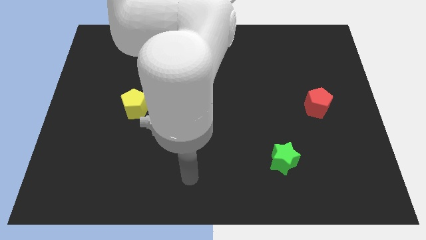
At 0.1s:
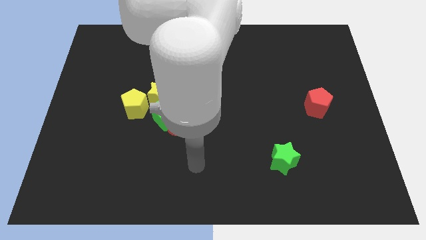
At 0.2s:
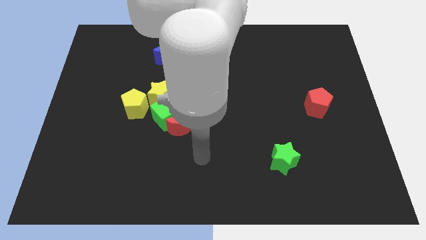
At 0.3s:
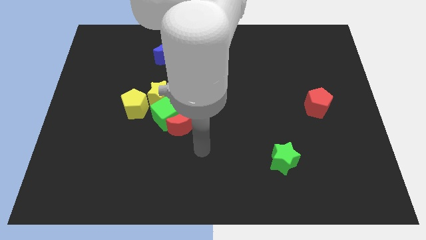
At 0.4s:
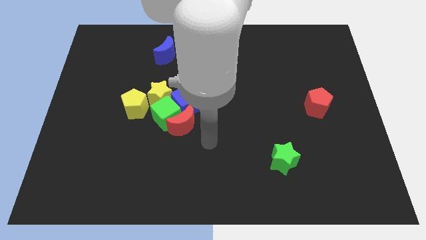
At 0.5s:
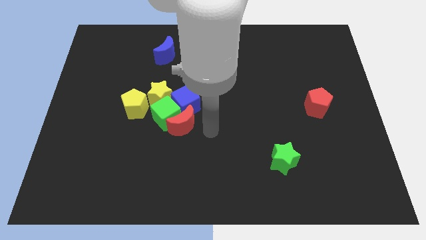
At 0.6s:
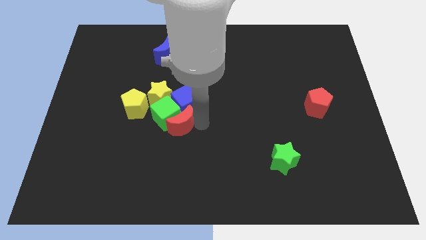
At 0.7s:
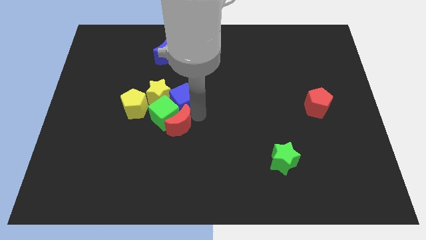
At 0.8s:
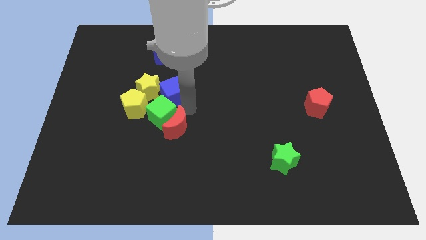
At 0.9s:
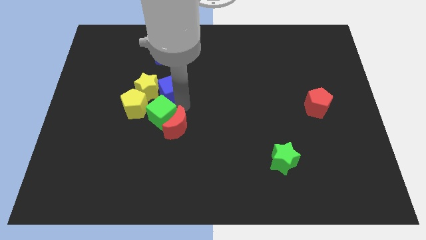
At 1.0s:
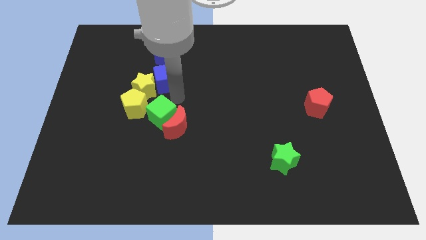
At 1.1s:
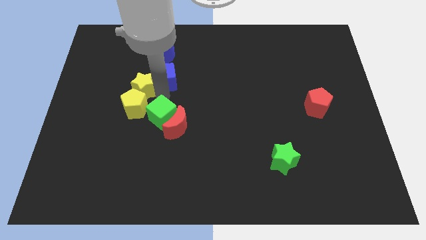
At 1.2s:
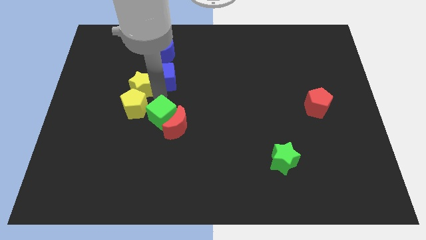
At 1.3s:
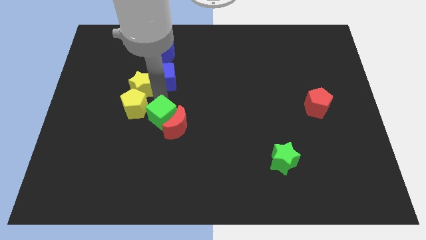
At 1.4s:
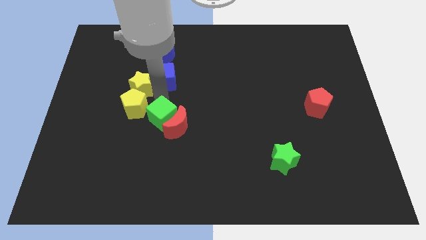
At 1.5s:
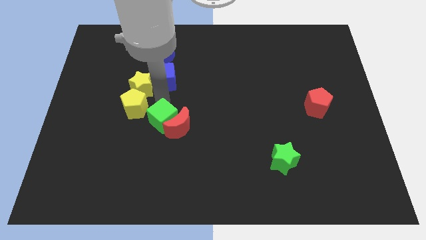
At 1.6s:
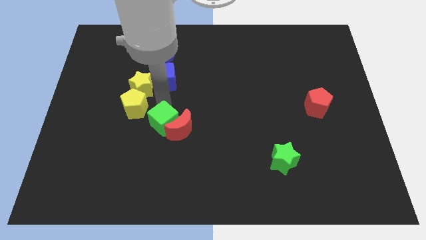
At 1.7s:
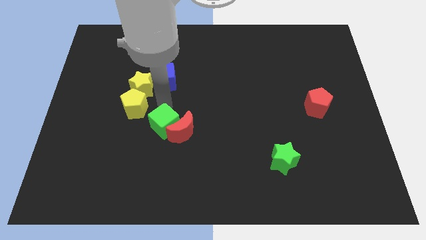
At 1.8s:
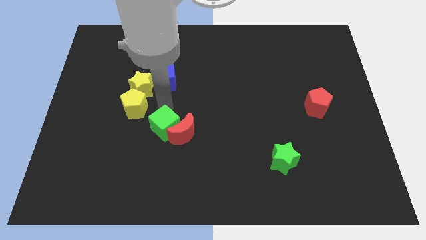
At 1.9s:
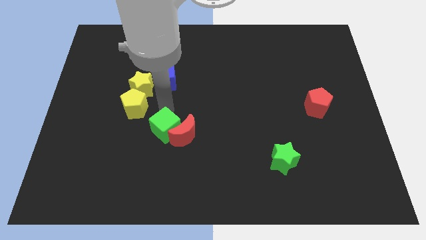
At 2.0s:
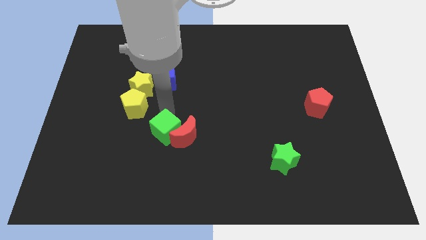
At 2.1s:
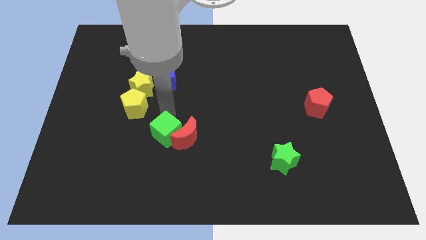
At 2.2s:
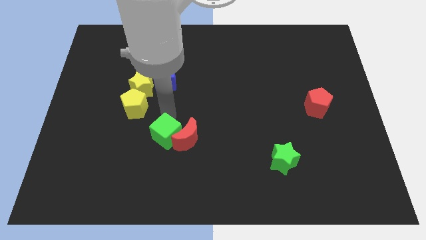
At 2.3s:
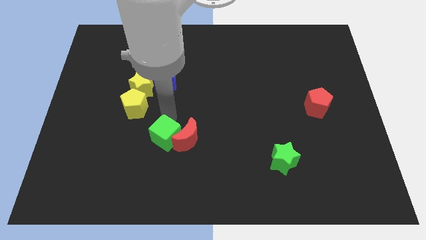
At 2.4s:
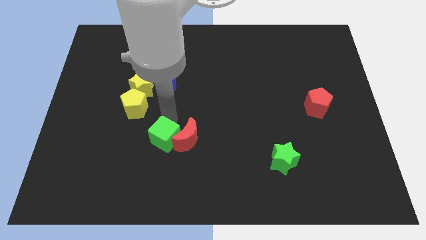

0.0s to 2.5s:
separate the green cube from the group

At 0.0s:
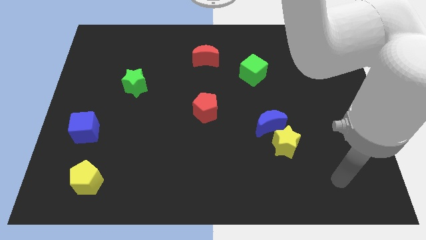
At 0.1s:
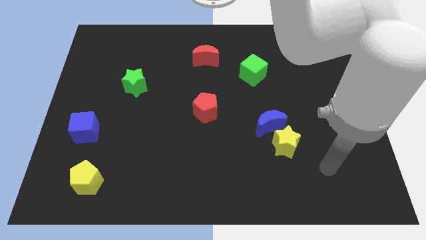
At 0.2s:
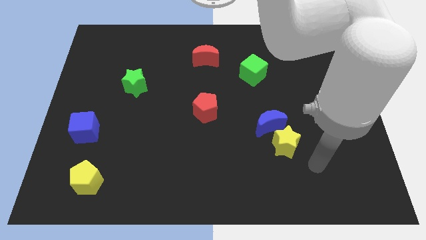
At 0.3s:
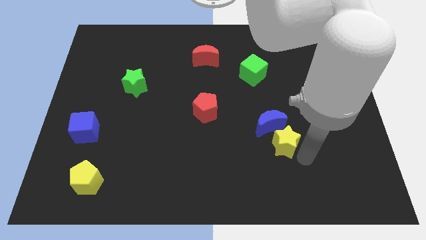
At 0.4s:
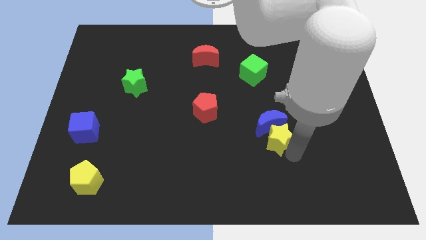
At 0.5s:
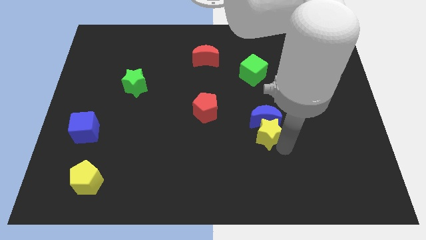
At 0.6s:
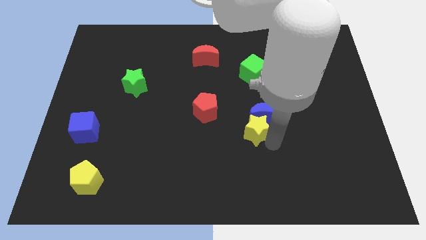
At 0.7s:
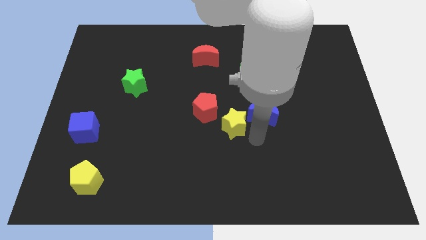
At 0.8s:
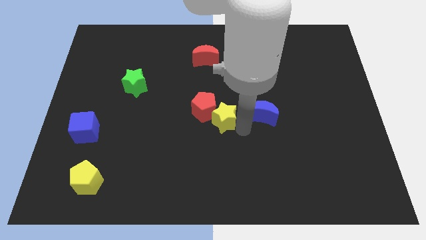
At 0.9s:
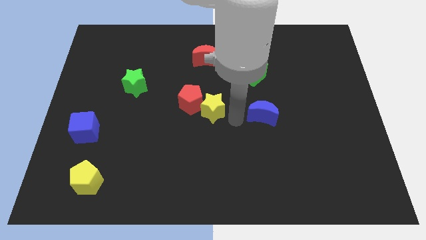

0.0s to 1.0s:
separate the blue moon from the yellow star

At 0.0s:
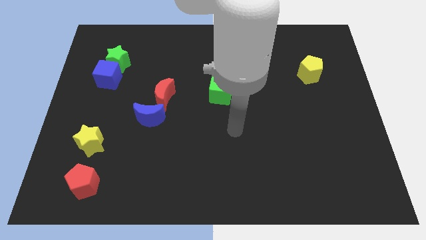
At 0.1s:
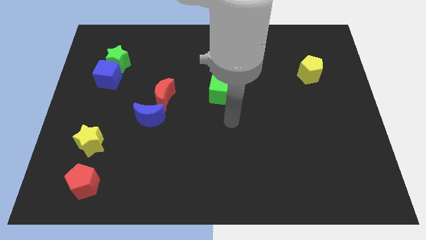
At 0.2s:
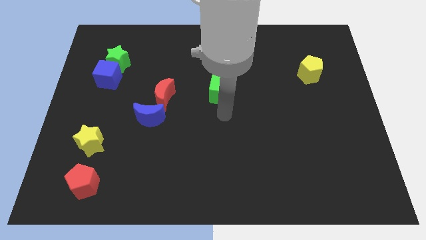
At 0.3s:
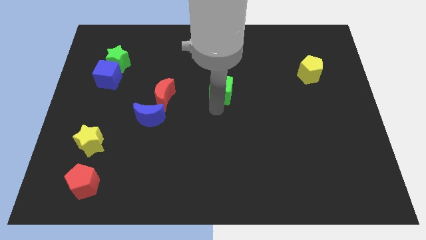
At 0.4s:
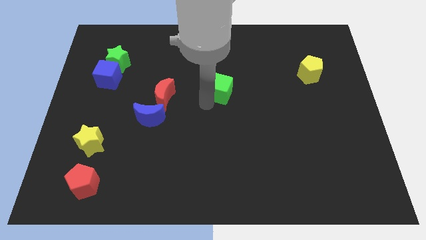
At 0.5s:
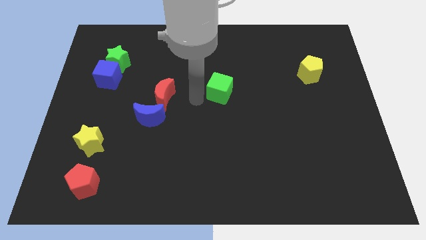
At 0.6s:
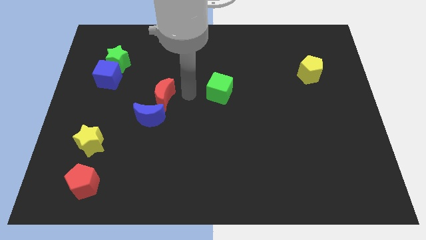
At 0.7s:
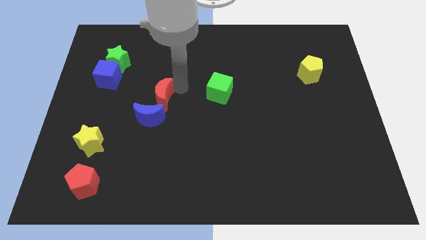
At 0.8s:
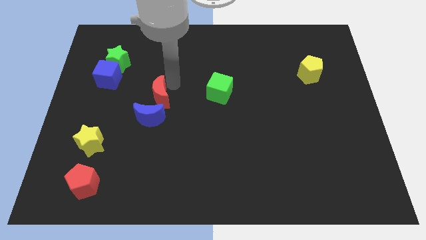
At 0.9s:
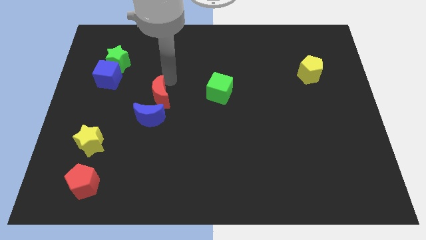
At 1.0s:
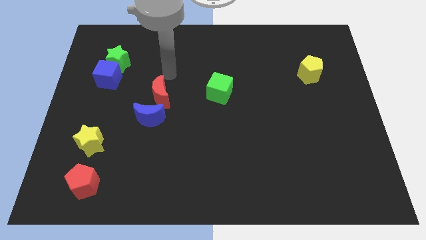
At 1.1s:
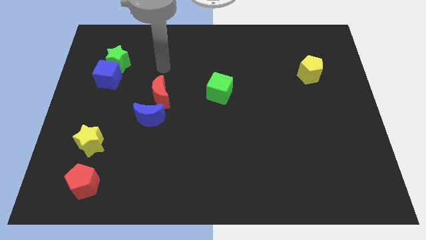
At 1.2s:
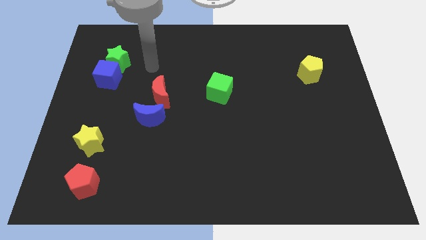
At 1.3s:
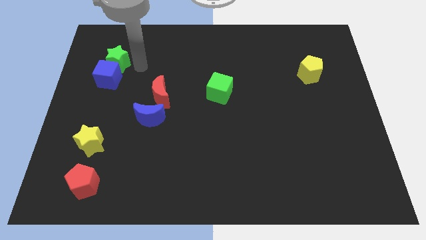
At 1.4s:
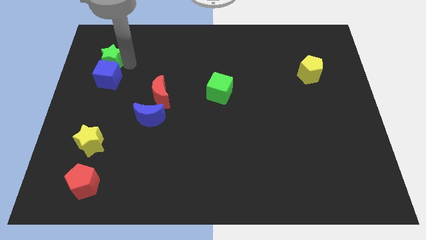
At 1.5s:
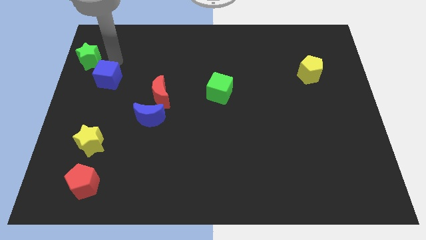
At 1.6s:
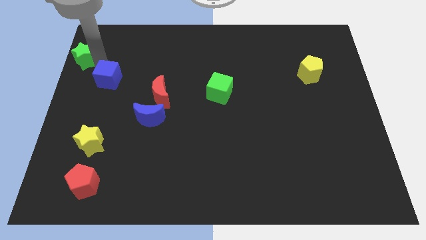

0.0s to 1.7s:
move the blue cube away from the green star

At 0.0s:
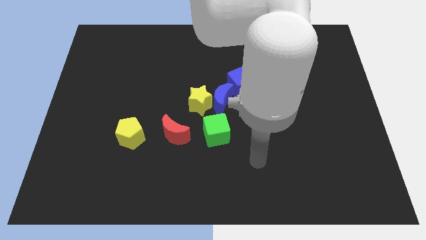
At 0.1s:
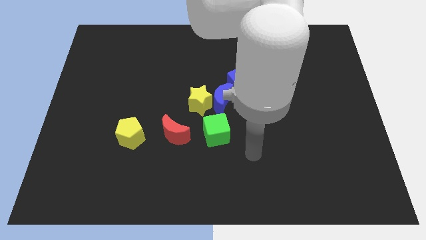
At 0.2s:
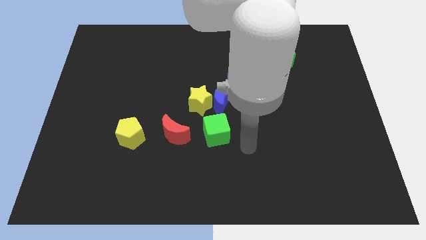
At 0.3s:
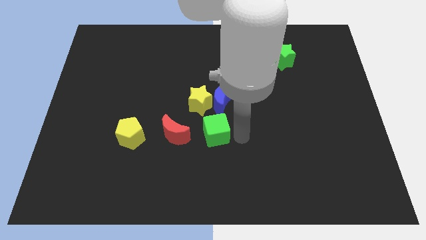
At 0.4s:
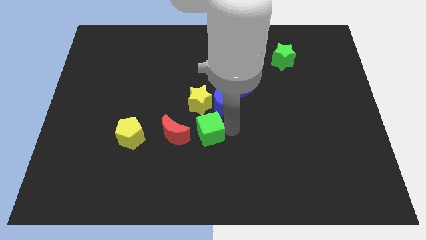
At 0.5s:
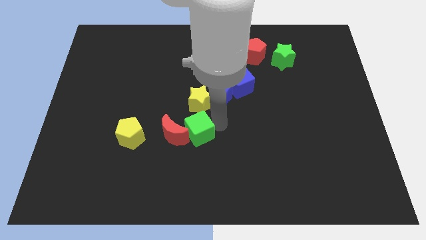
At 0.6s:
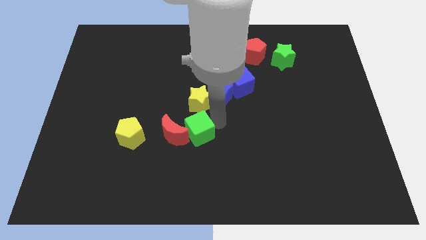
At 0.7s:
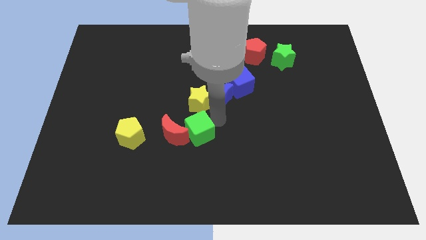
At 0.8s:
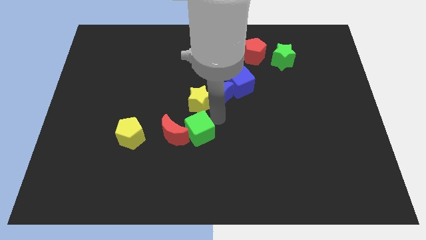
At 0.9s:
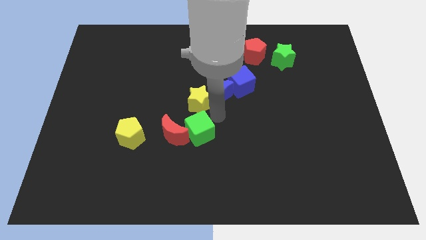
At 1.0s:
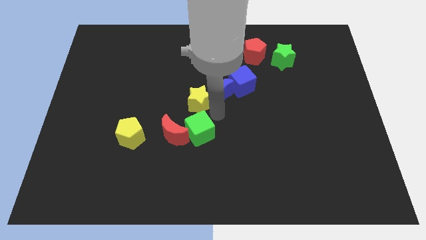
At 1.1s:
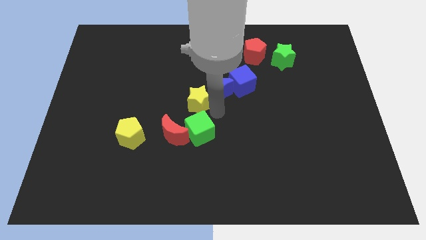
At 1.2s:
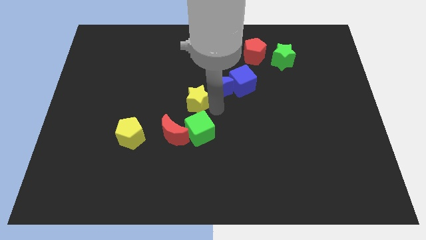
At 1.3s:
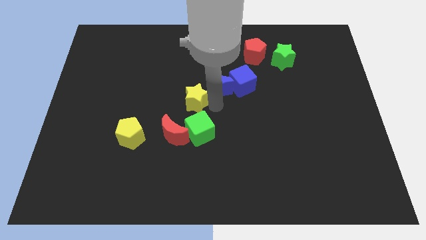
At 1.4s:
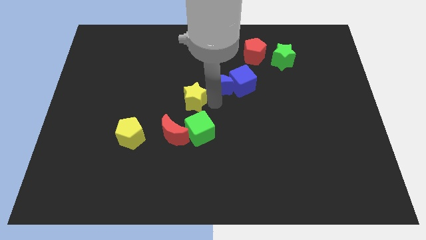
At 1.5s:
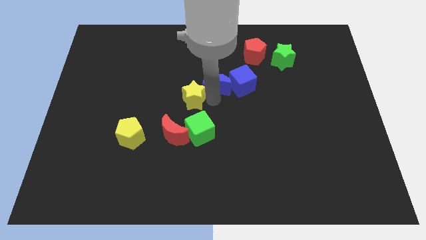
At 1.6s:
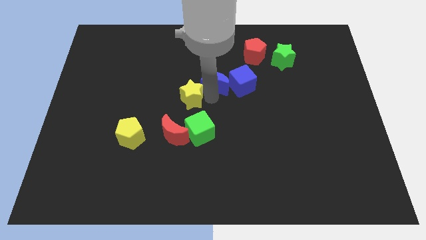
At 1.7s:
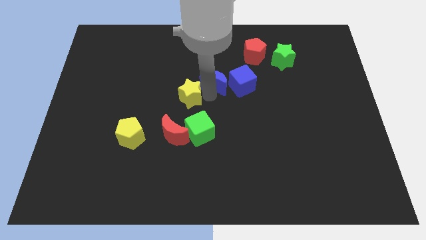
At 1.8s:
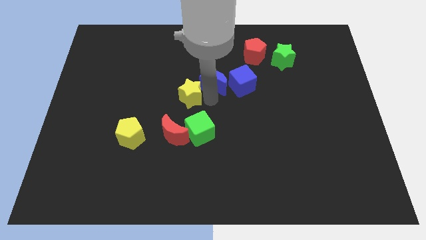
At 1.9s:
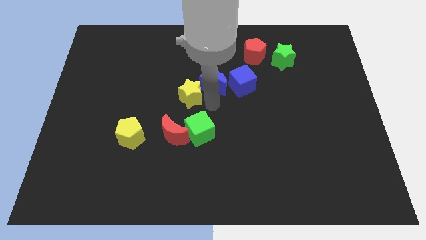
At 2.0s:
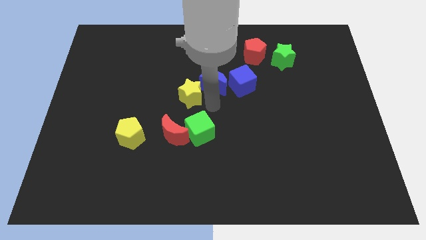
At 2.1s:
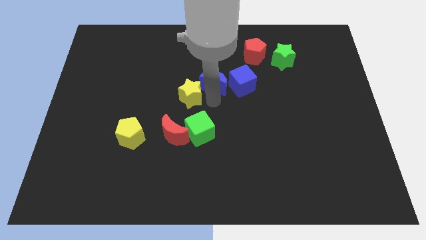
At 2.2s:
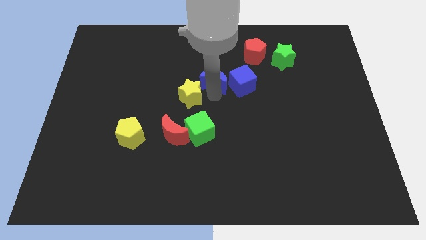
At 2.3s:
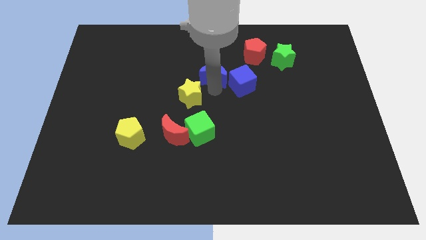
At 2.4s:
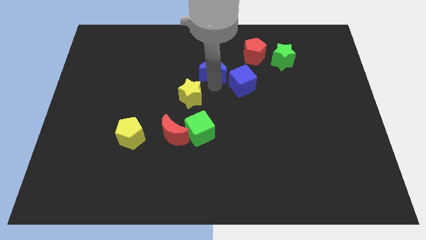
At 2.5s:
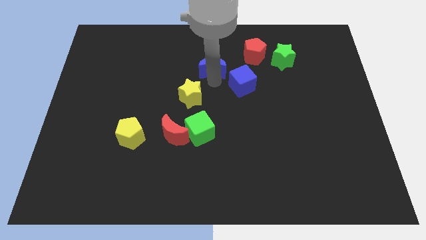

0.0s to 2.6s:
move the blue moon away from the group

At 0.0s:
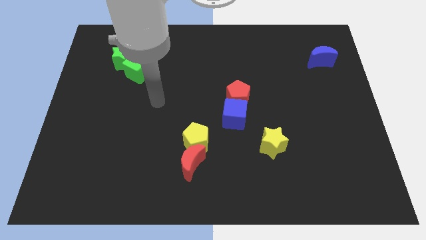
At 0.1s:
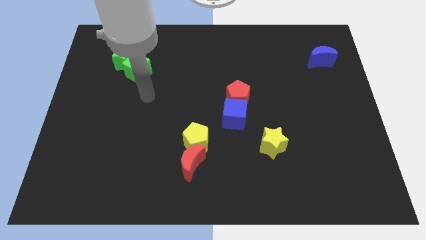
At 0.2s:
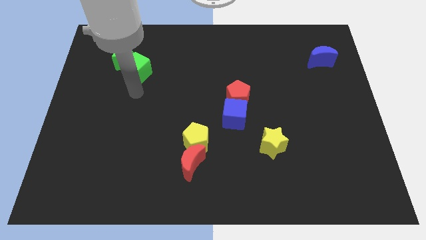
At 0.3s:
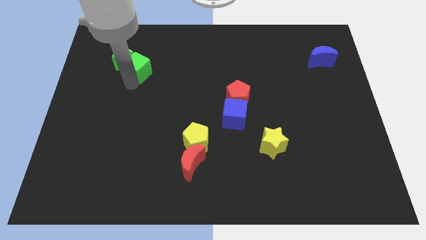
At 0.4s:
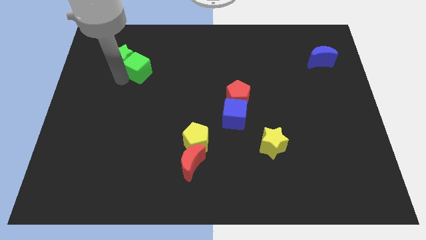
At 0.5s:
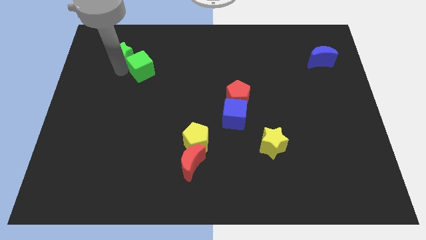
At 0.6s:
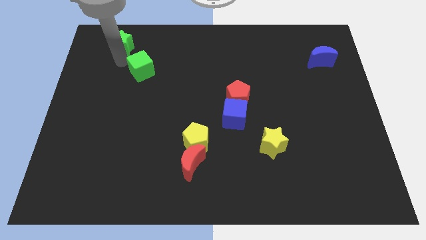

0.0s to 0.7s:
pull the green cube apart from the green star

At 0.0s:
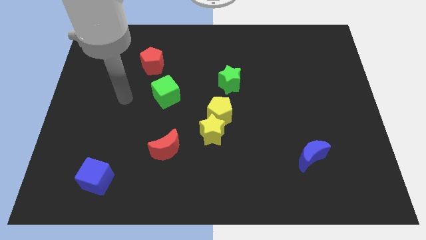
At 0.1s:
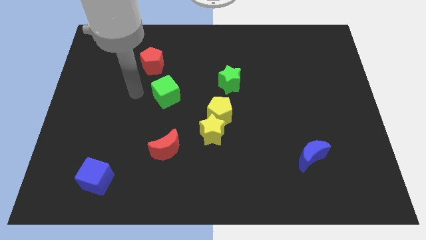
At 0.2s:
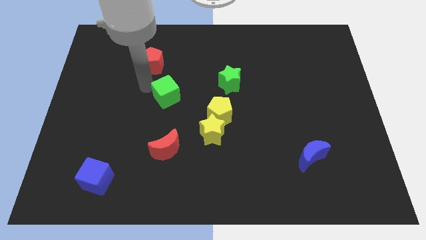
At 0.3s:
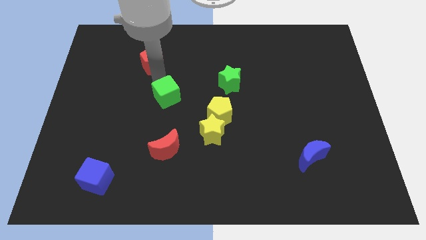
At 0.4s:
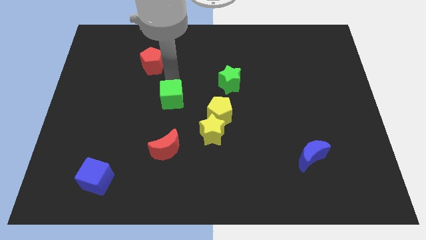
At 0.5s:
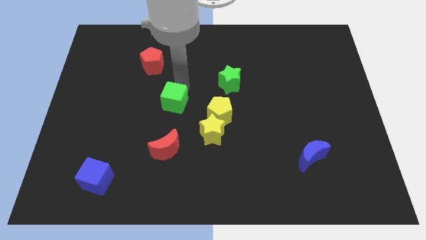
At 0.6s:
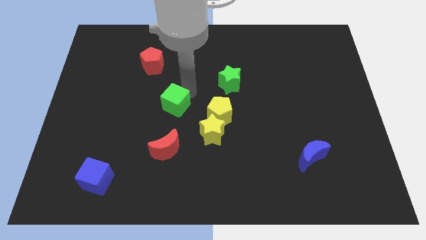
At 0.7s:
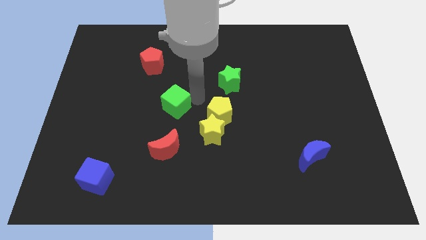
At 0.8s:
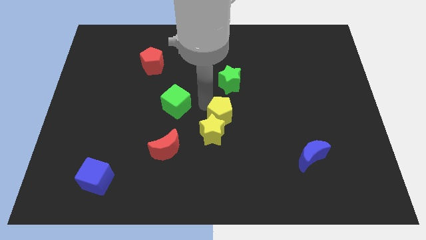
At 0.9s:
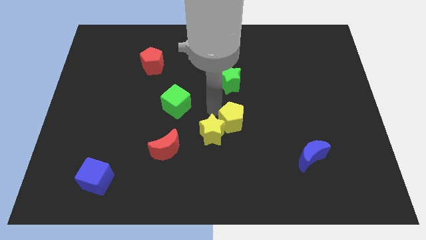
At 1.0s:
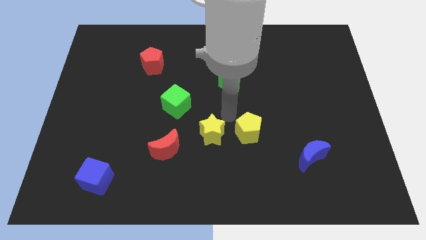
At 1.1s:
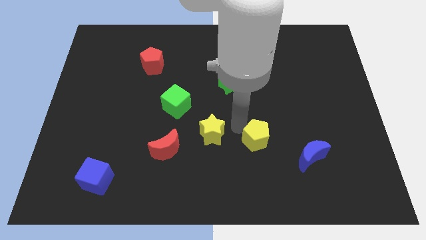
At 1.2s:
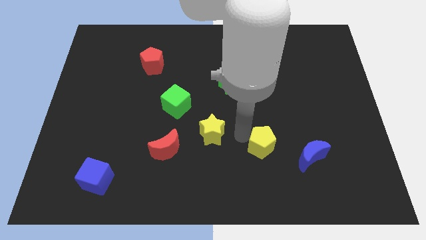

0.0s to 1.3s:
move the yellow star away from the yellow pentagon
